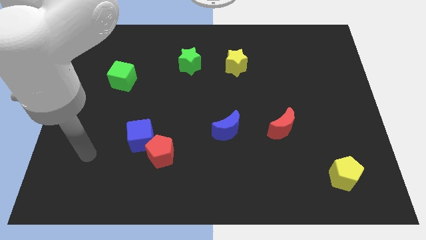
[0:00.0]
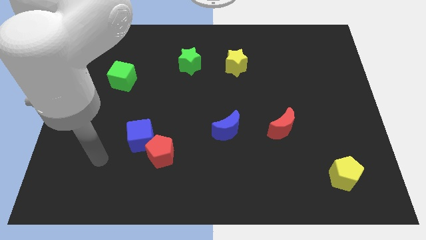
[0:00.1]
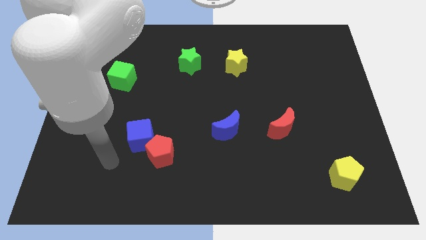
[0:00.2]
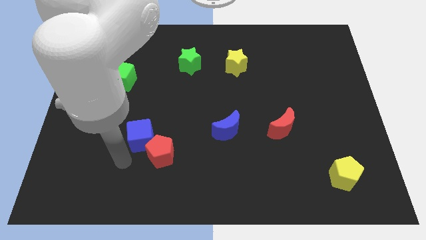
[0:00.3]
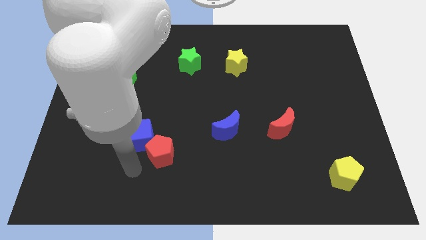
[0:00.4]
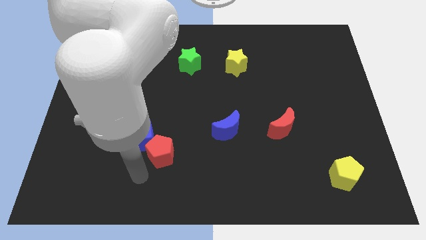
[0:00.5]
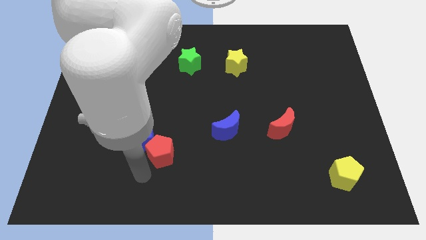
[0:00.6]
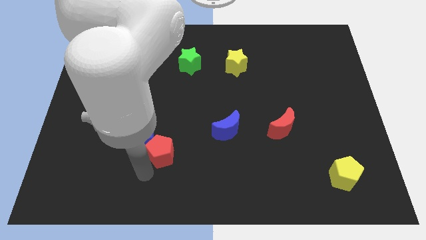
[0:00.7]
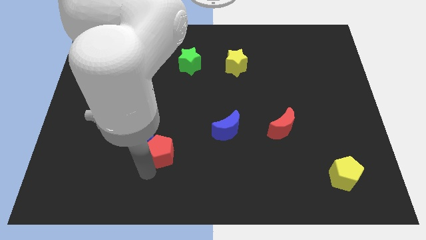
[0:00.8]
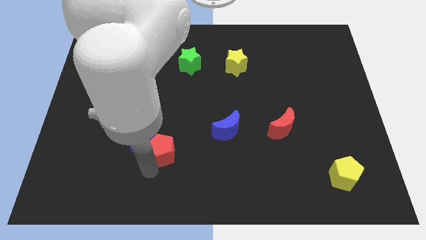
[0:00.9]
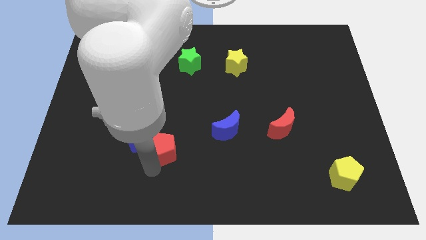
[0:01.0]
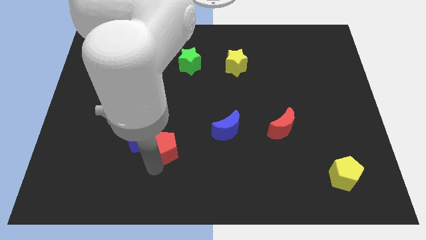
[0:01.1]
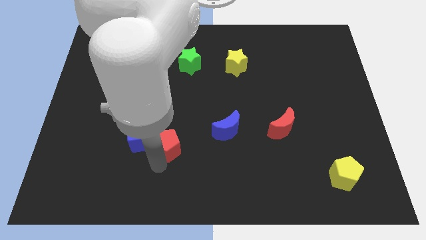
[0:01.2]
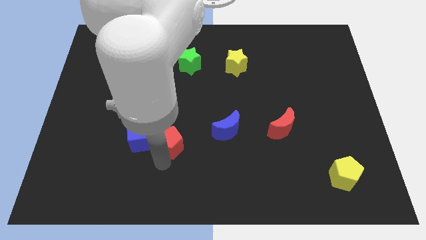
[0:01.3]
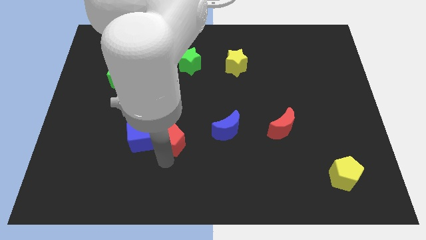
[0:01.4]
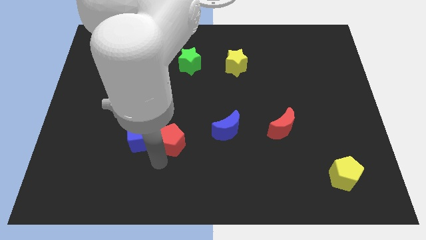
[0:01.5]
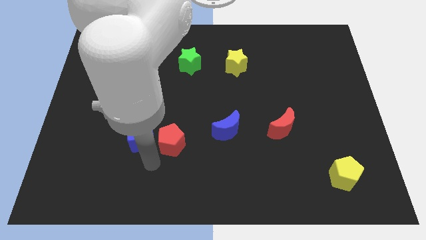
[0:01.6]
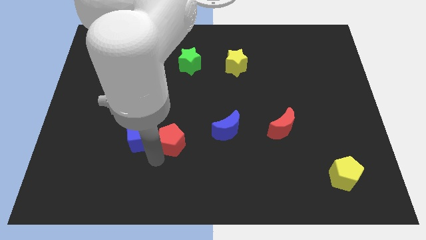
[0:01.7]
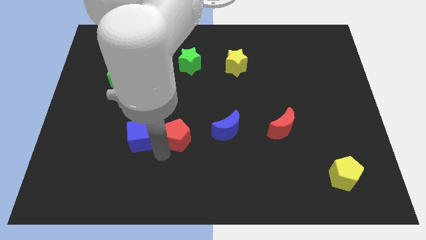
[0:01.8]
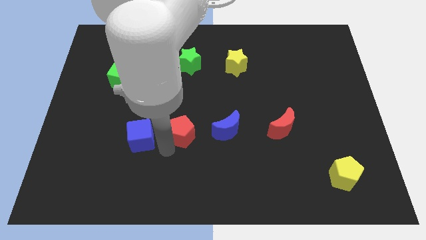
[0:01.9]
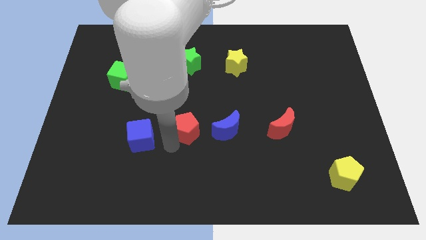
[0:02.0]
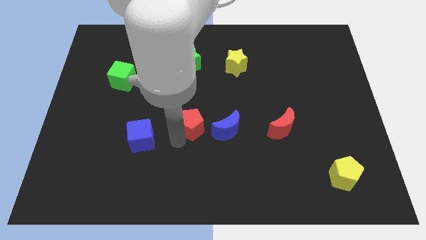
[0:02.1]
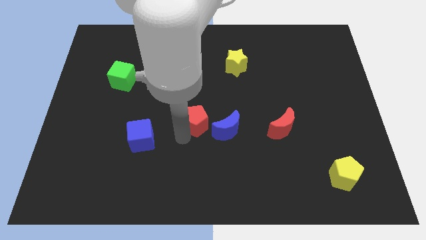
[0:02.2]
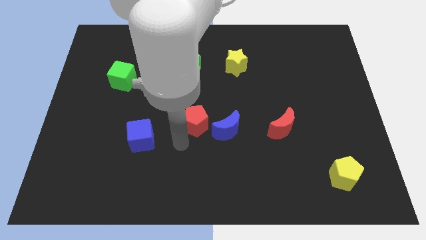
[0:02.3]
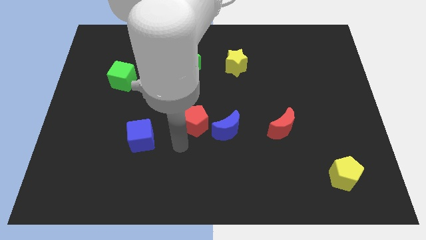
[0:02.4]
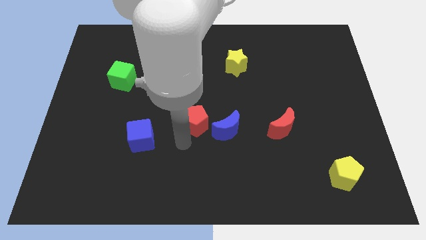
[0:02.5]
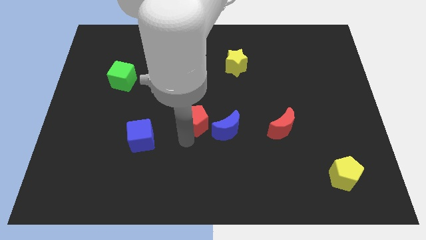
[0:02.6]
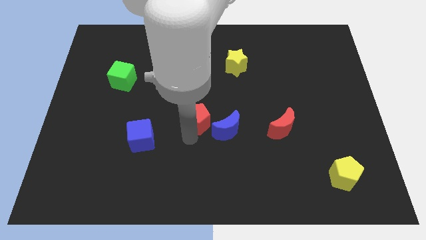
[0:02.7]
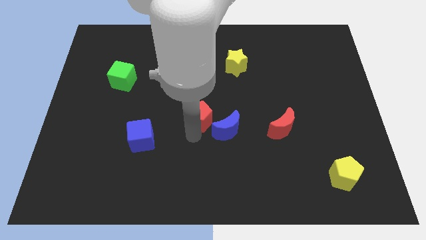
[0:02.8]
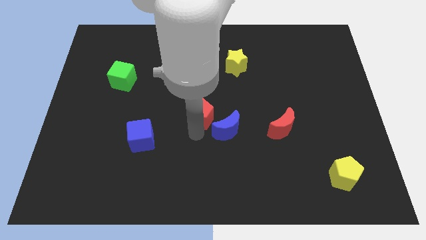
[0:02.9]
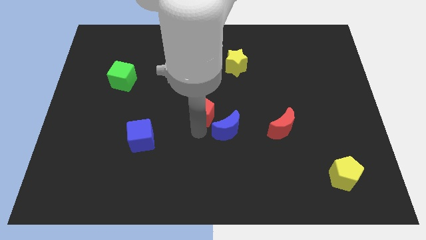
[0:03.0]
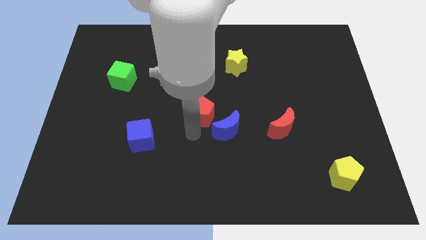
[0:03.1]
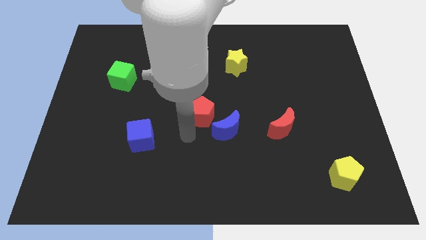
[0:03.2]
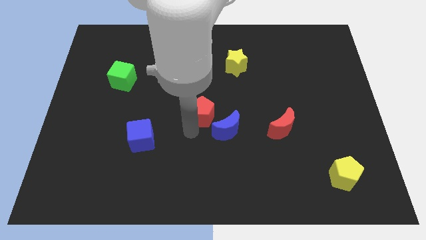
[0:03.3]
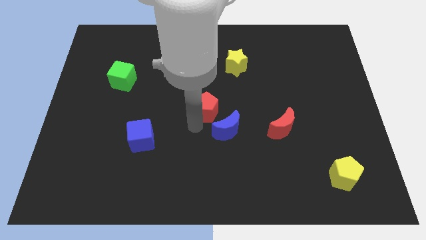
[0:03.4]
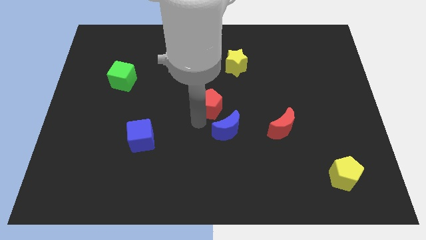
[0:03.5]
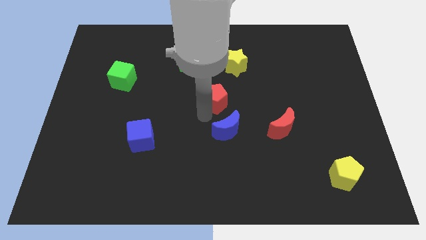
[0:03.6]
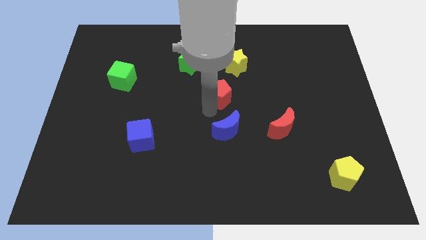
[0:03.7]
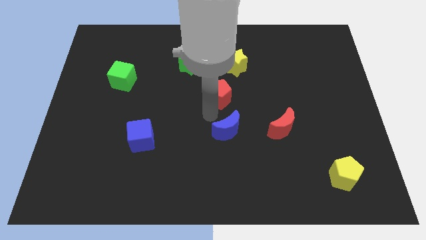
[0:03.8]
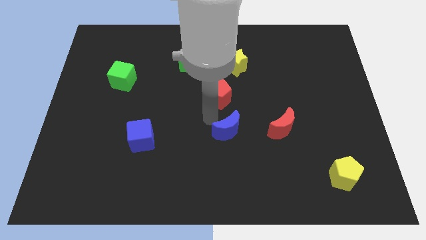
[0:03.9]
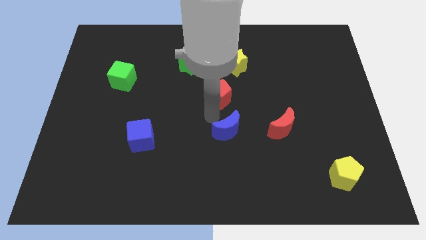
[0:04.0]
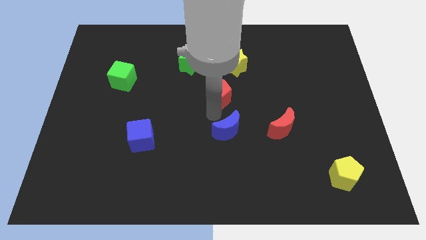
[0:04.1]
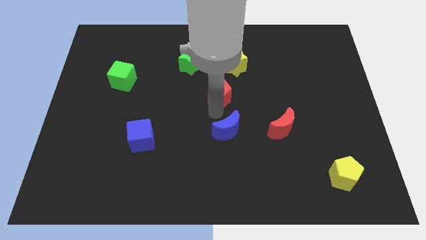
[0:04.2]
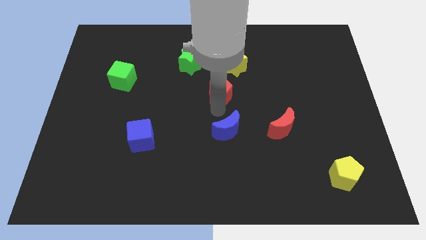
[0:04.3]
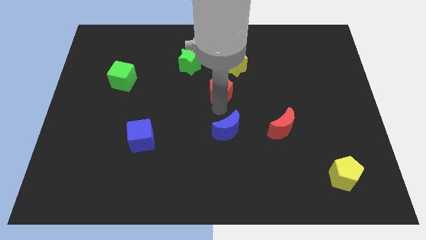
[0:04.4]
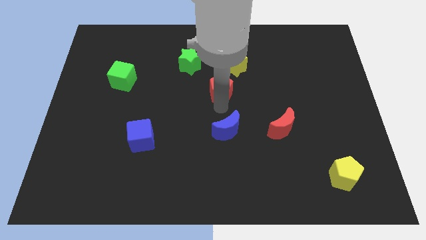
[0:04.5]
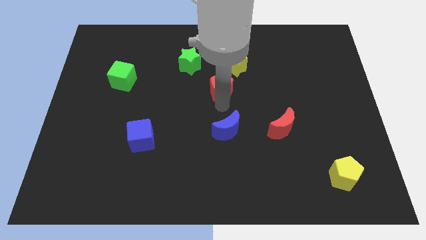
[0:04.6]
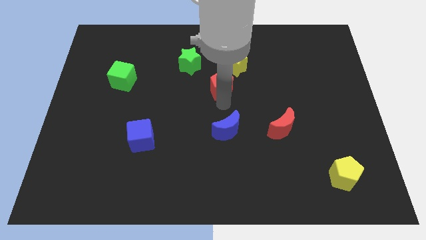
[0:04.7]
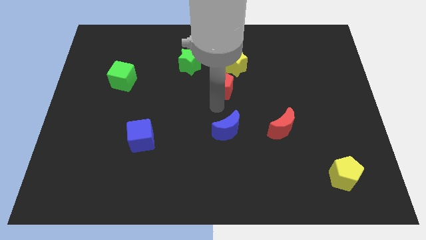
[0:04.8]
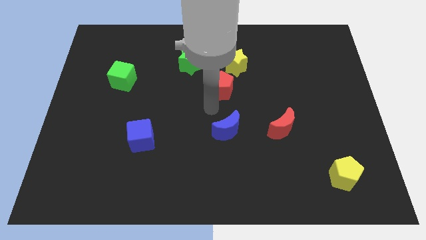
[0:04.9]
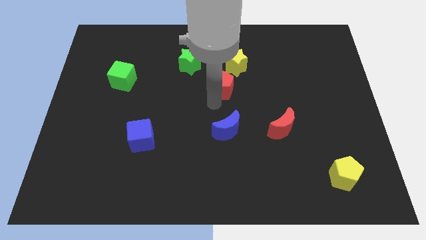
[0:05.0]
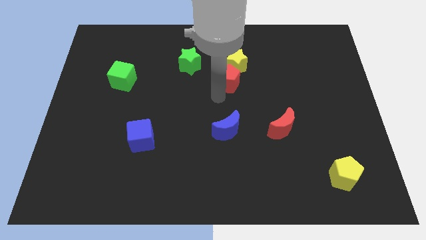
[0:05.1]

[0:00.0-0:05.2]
put the red pentagon towards the yellow star
